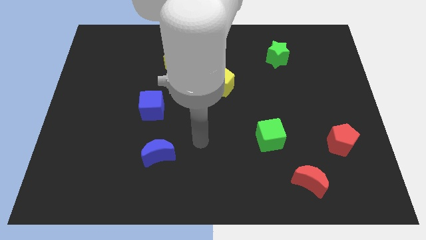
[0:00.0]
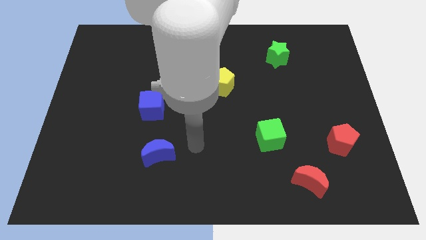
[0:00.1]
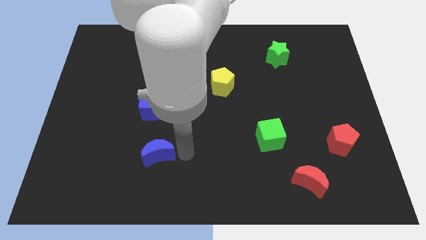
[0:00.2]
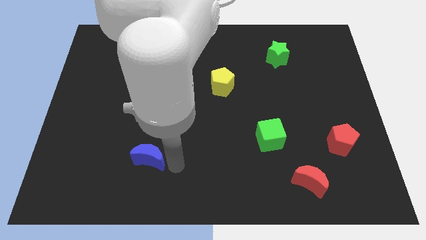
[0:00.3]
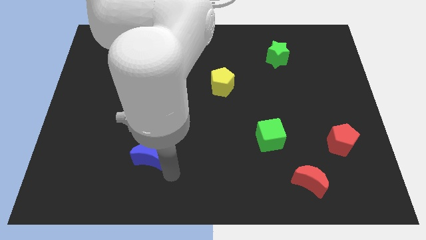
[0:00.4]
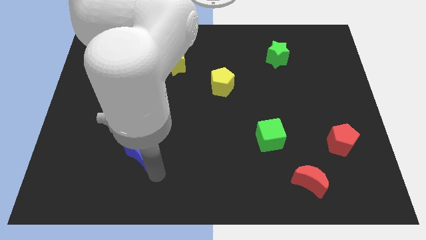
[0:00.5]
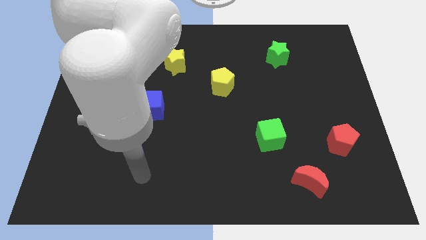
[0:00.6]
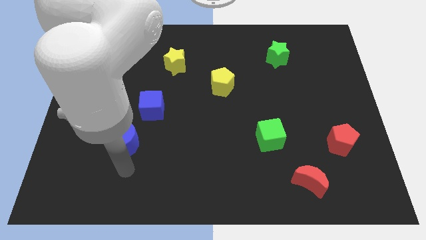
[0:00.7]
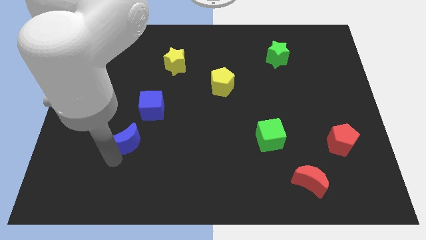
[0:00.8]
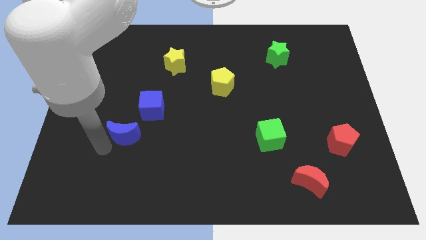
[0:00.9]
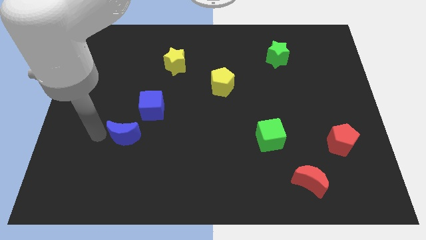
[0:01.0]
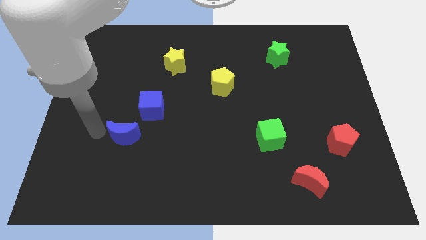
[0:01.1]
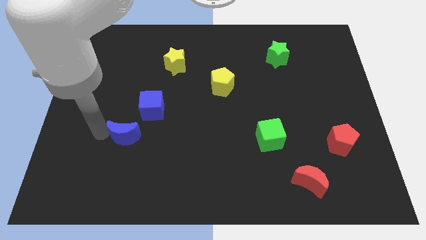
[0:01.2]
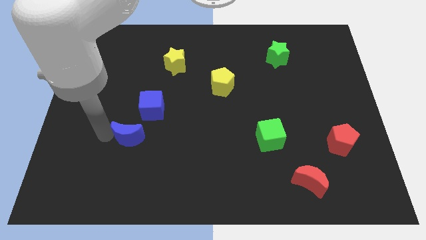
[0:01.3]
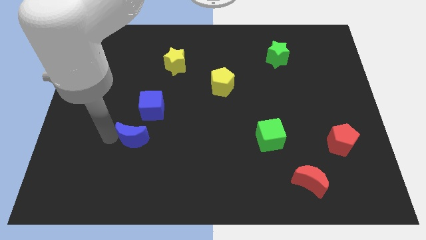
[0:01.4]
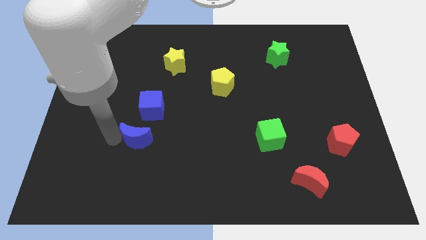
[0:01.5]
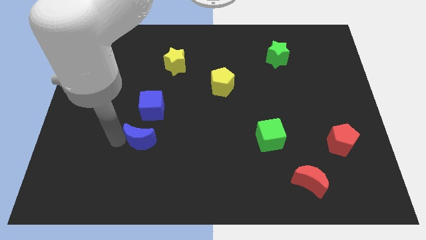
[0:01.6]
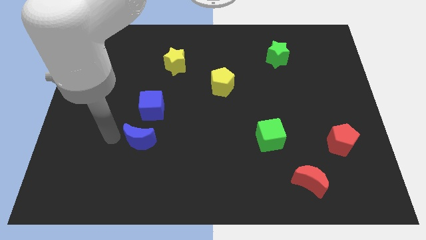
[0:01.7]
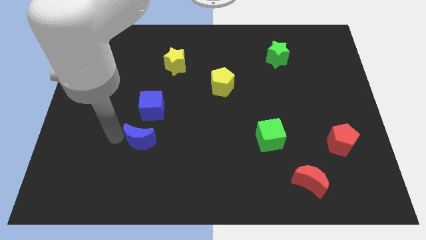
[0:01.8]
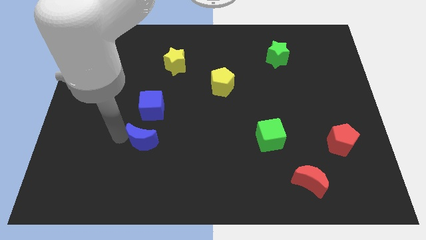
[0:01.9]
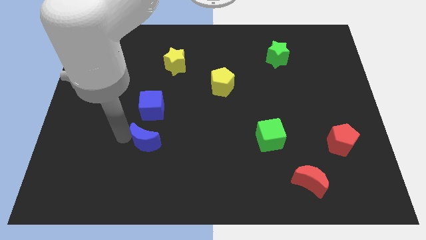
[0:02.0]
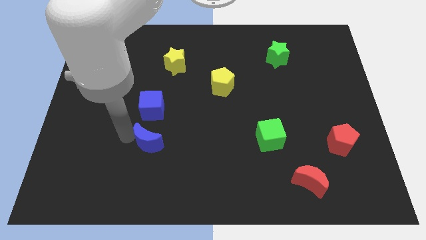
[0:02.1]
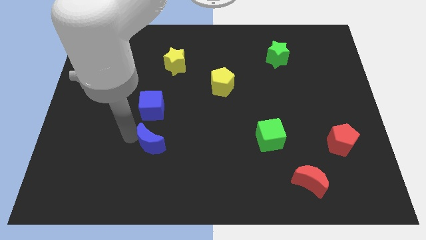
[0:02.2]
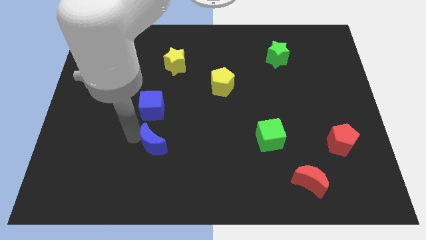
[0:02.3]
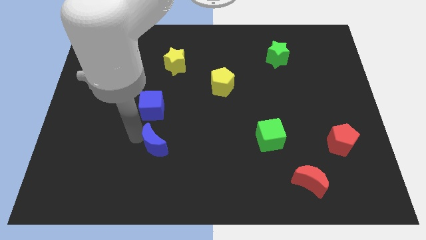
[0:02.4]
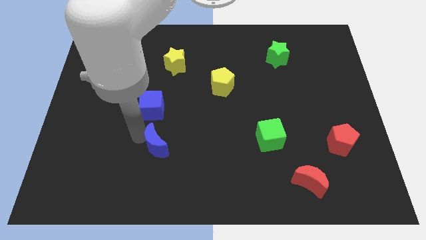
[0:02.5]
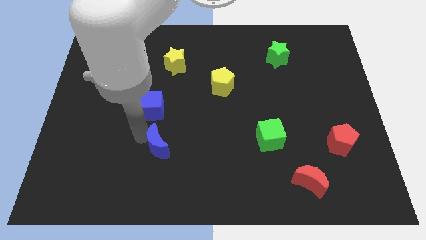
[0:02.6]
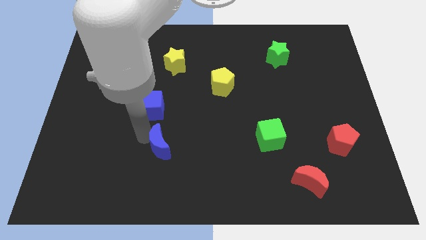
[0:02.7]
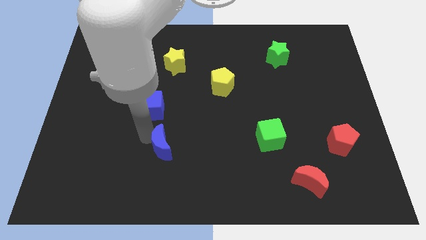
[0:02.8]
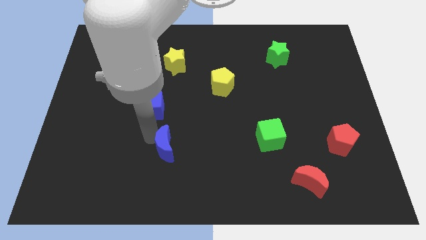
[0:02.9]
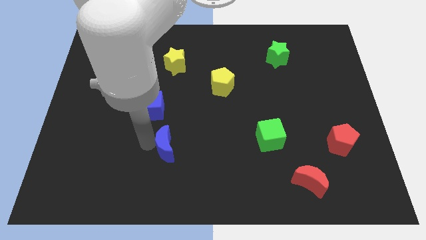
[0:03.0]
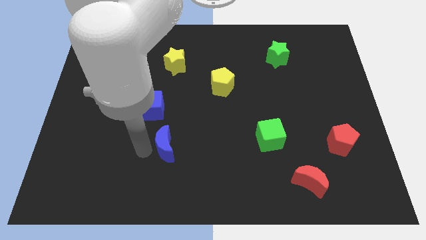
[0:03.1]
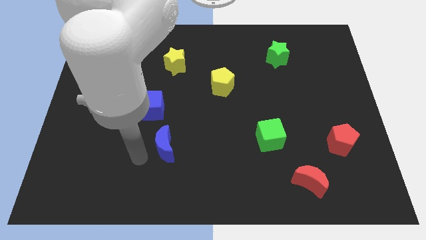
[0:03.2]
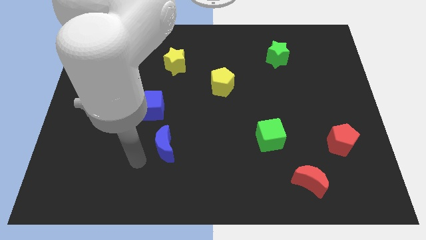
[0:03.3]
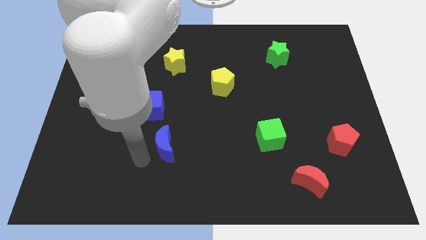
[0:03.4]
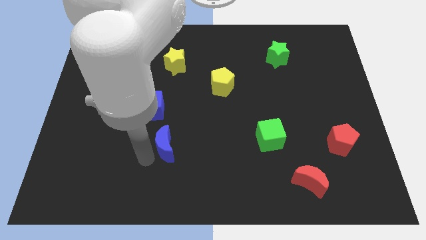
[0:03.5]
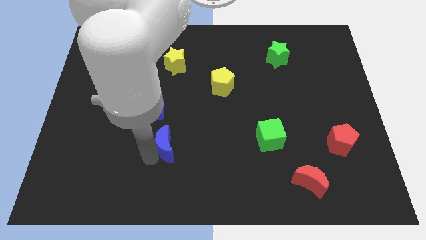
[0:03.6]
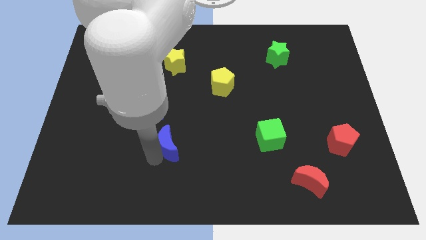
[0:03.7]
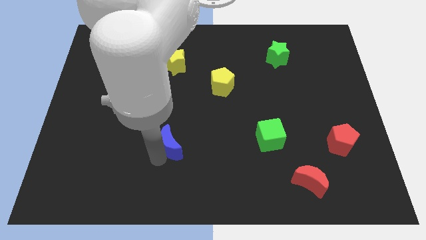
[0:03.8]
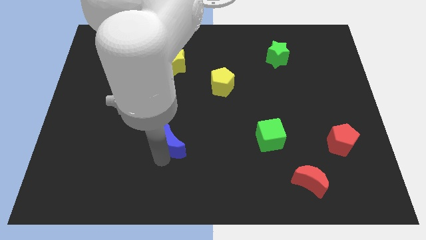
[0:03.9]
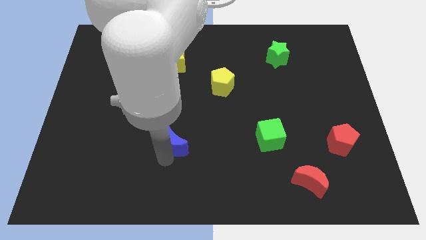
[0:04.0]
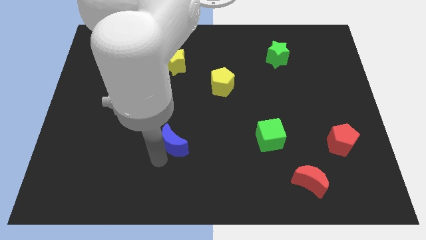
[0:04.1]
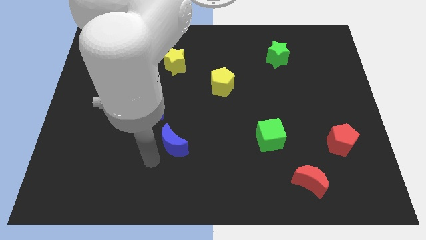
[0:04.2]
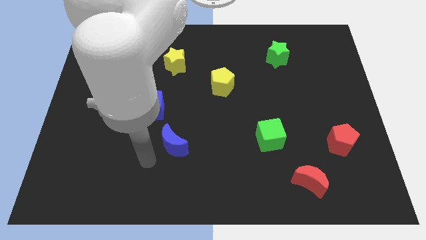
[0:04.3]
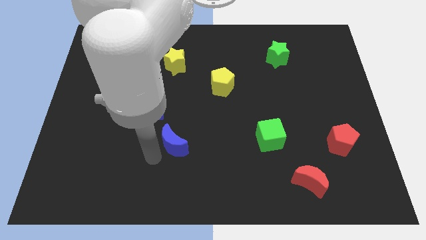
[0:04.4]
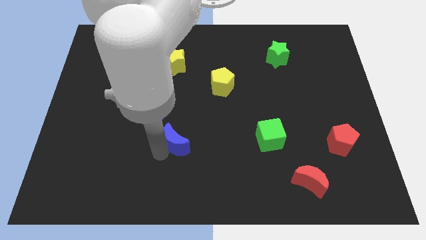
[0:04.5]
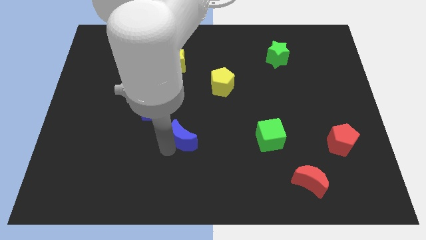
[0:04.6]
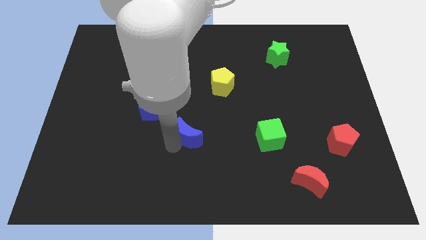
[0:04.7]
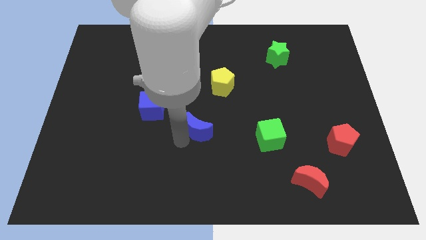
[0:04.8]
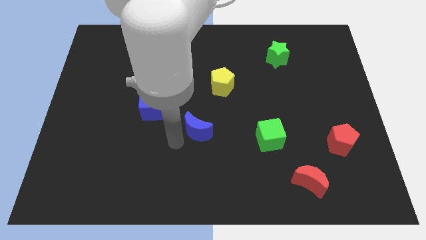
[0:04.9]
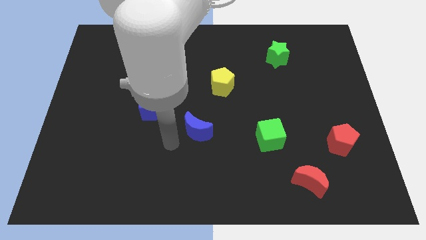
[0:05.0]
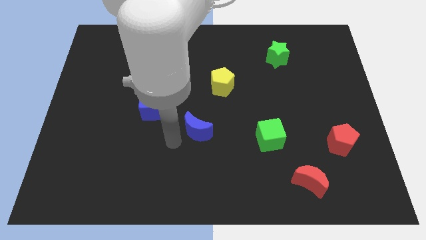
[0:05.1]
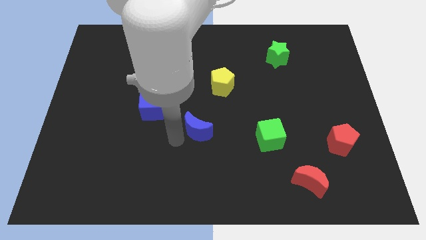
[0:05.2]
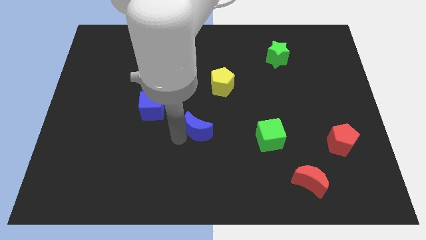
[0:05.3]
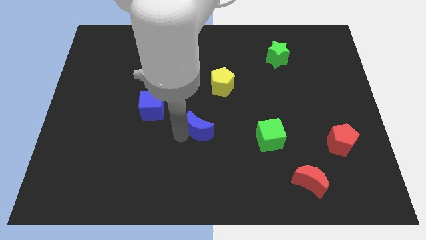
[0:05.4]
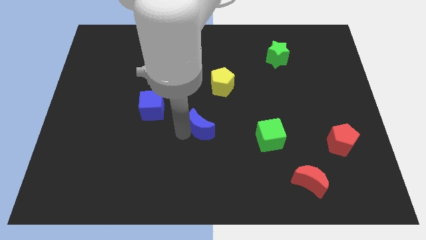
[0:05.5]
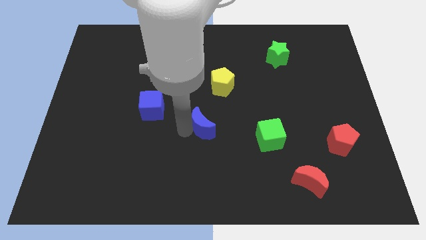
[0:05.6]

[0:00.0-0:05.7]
slide the blue moon to the bottom side of the yellow pentagon

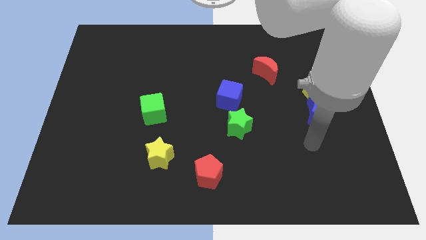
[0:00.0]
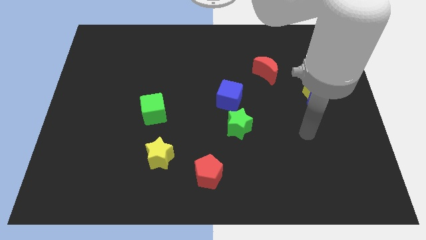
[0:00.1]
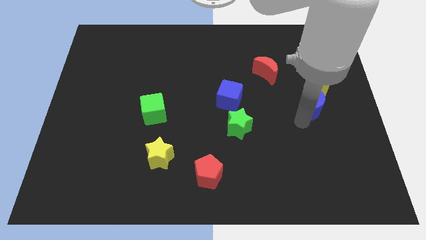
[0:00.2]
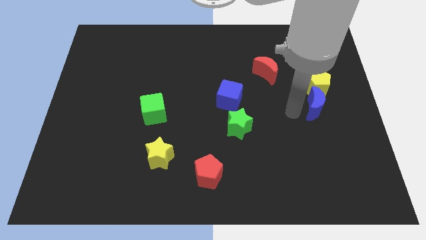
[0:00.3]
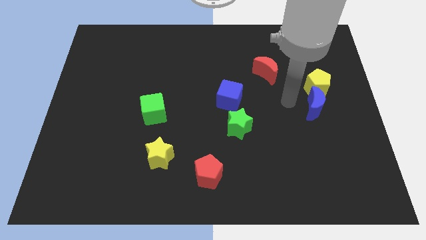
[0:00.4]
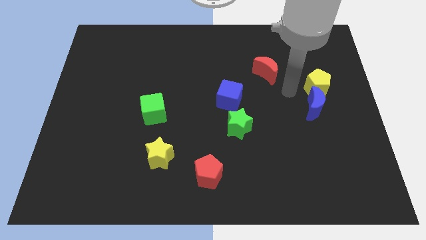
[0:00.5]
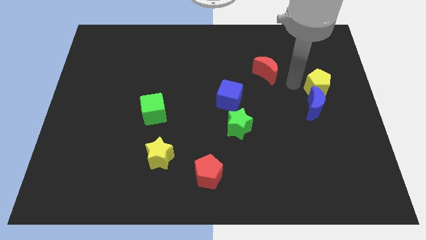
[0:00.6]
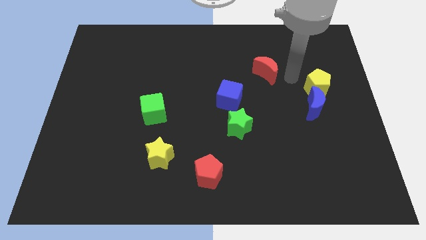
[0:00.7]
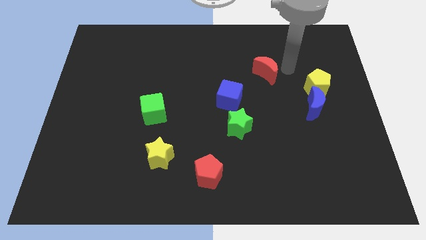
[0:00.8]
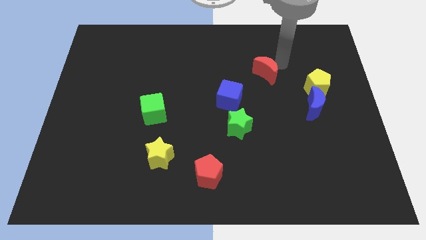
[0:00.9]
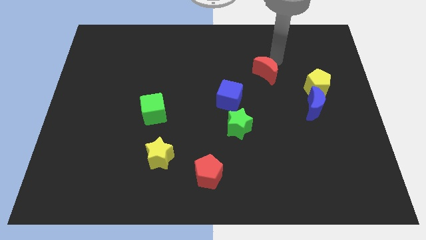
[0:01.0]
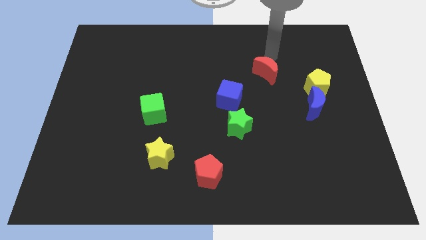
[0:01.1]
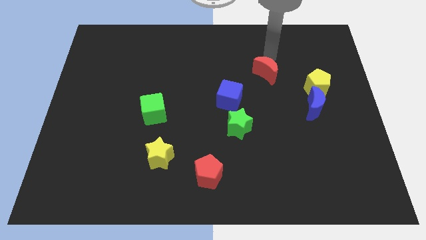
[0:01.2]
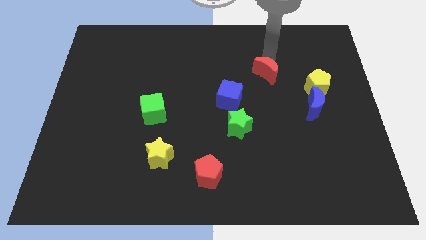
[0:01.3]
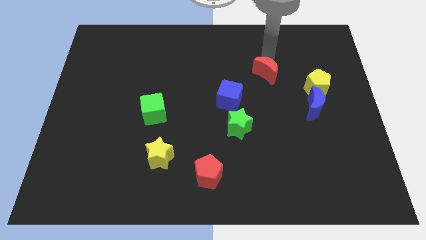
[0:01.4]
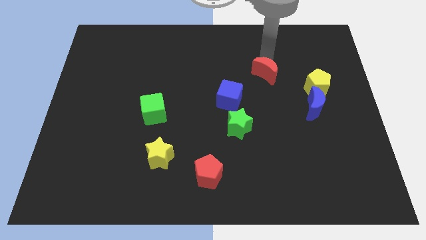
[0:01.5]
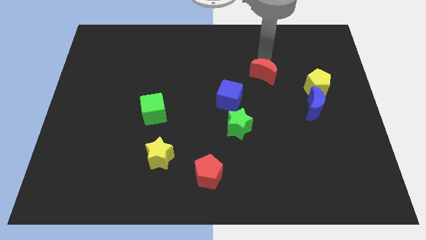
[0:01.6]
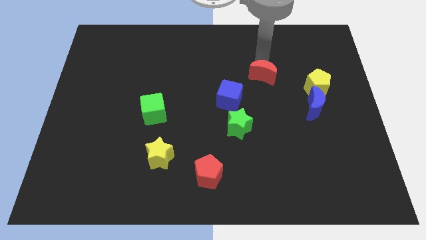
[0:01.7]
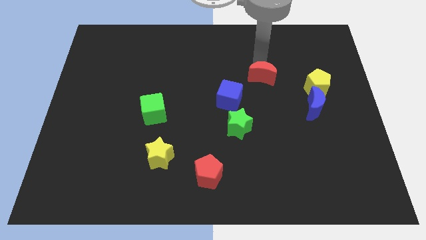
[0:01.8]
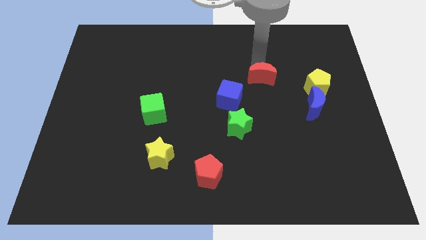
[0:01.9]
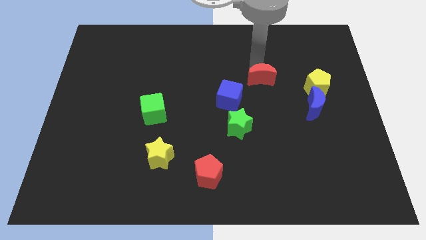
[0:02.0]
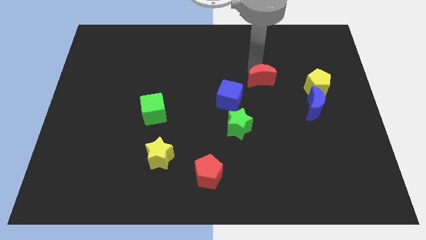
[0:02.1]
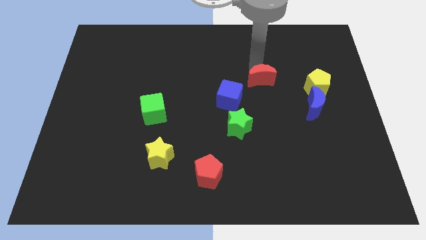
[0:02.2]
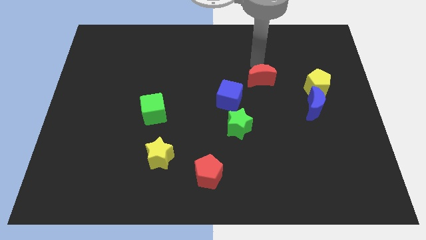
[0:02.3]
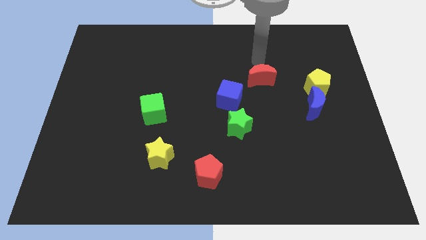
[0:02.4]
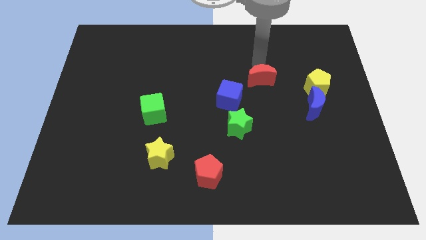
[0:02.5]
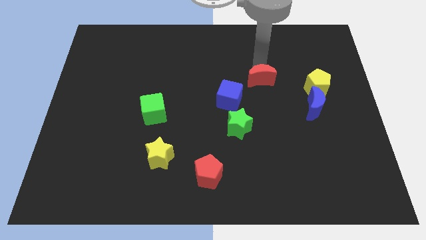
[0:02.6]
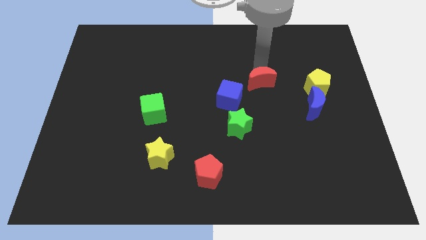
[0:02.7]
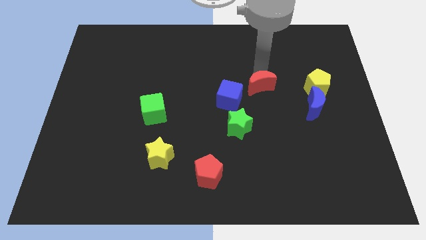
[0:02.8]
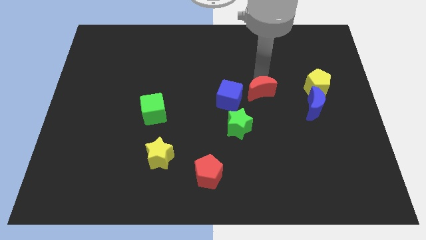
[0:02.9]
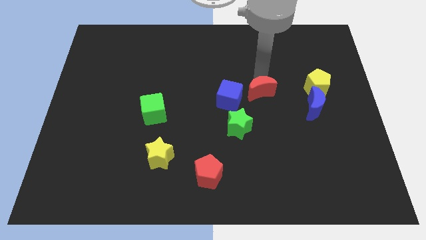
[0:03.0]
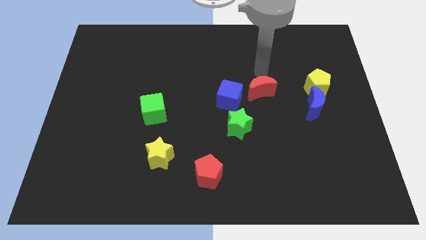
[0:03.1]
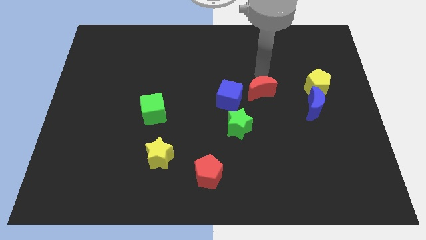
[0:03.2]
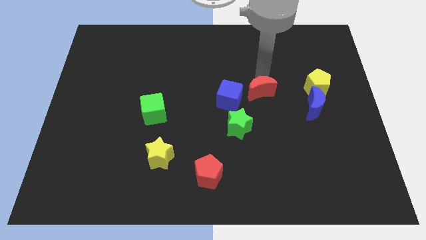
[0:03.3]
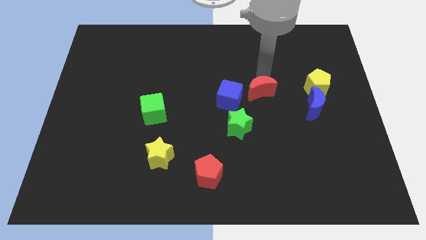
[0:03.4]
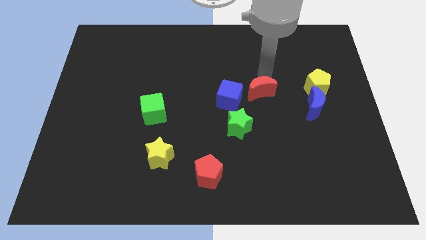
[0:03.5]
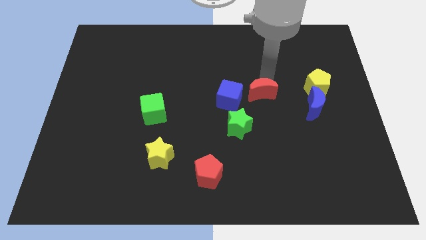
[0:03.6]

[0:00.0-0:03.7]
slide the red moon to the top right side of the green star
